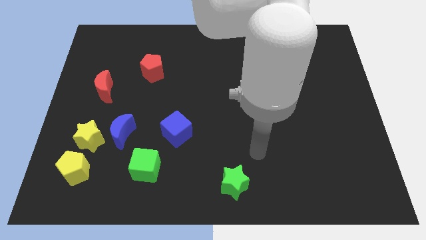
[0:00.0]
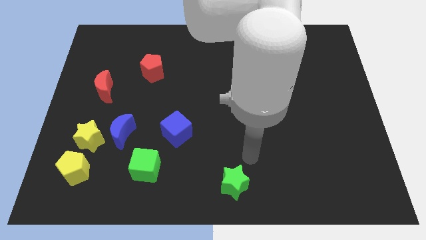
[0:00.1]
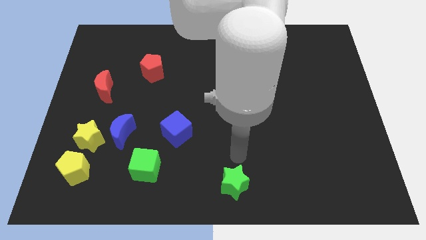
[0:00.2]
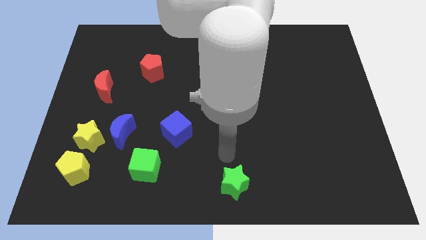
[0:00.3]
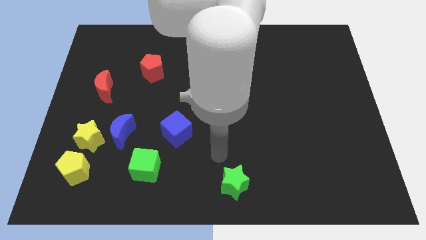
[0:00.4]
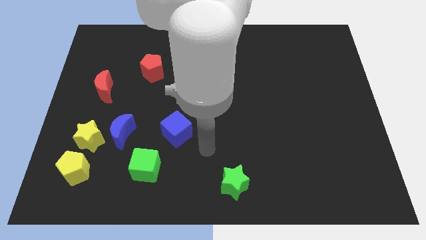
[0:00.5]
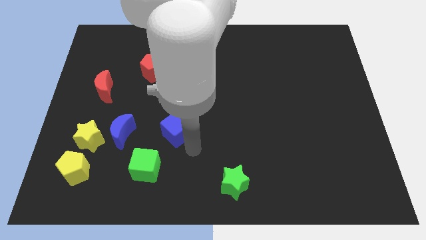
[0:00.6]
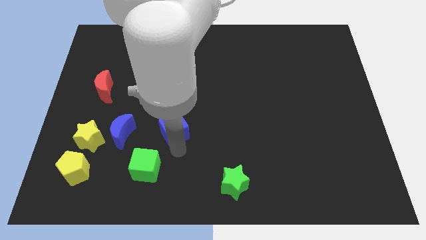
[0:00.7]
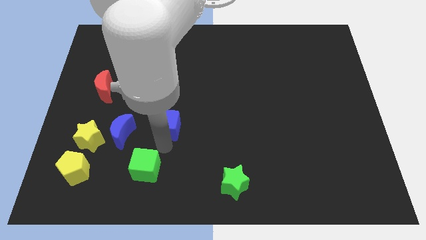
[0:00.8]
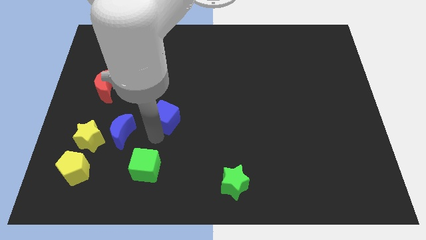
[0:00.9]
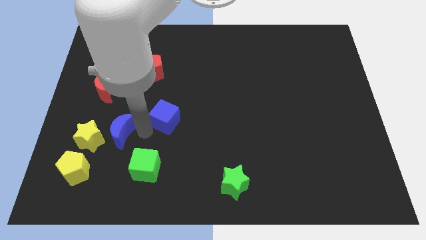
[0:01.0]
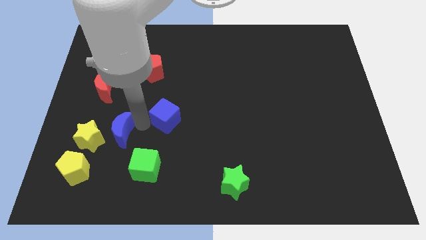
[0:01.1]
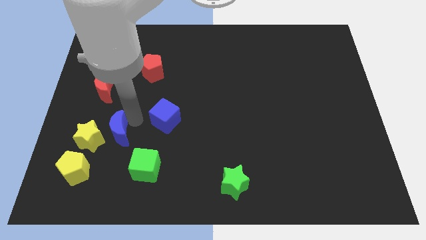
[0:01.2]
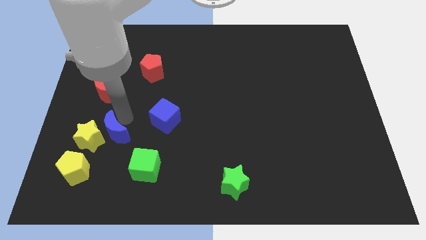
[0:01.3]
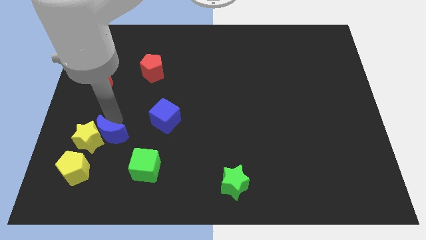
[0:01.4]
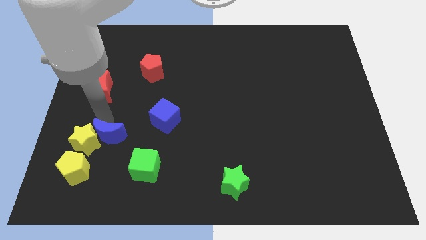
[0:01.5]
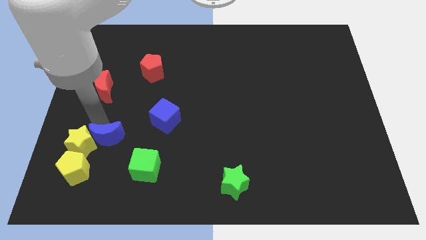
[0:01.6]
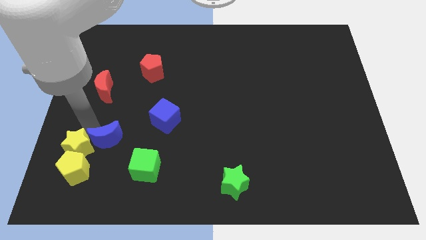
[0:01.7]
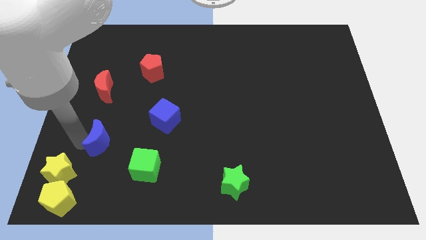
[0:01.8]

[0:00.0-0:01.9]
pull the blue moon apart from the yellow star

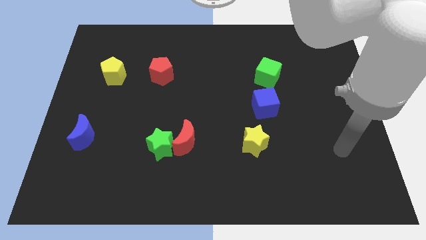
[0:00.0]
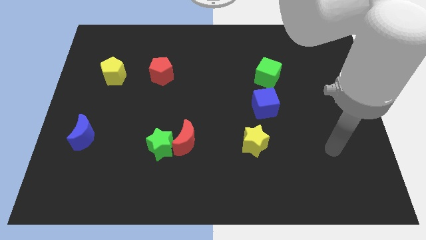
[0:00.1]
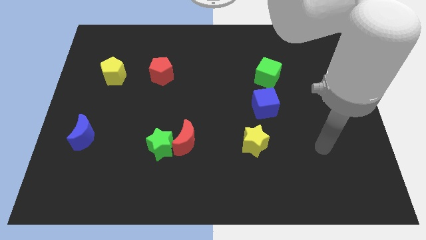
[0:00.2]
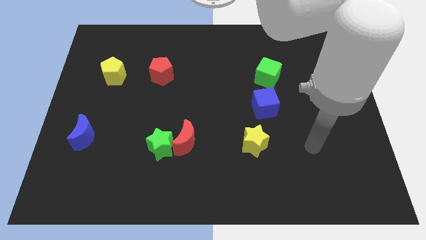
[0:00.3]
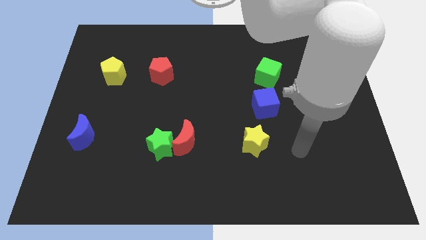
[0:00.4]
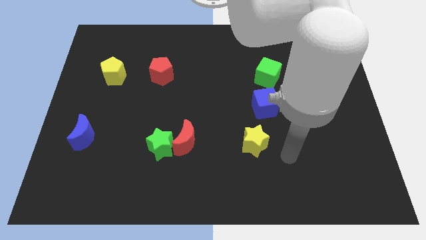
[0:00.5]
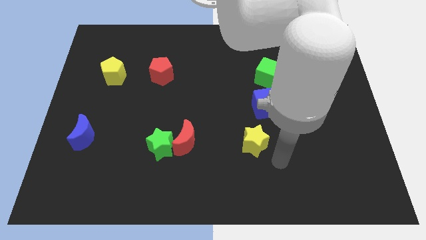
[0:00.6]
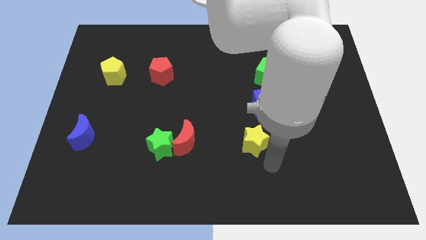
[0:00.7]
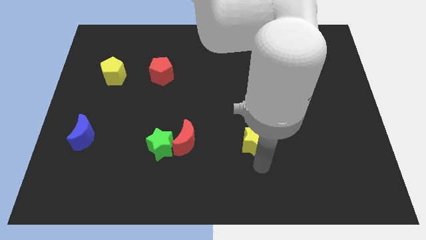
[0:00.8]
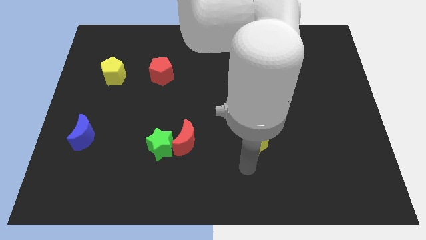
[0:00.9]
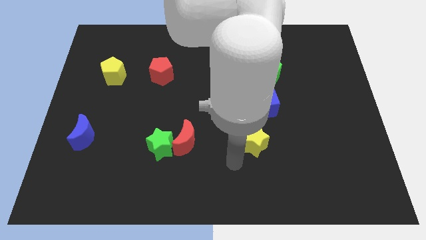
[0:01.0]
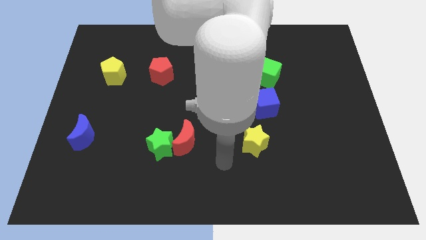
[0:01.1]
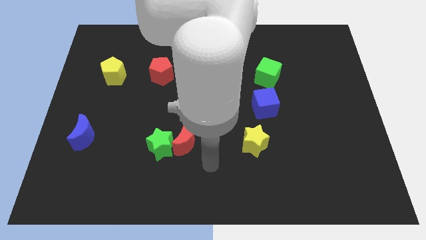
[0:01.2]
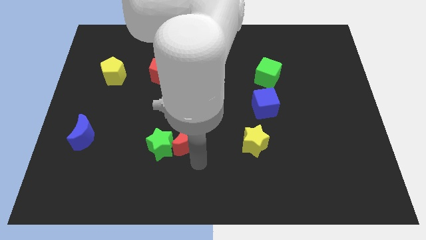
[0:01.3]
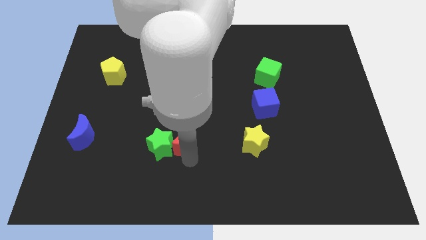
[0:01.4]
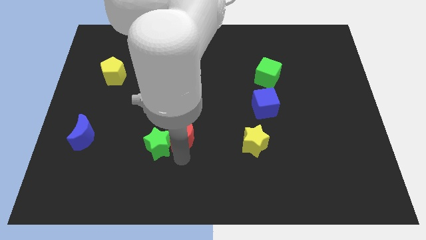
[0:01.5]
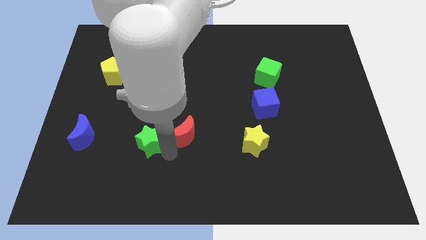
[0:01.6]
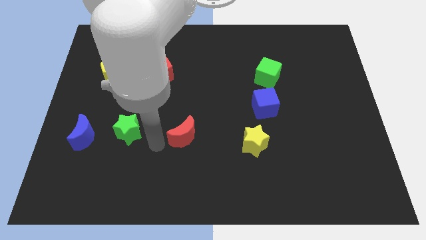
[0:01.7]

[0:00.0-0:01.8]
separate the red moon from the green star

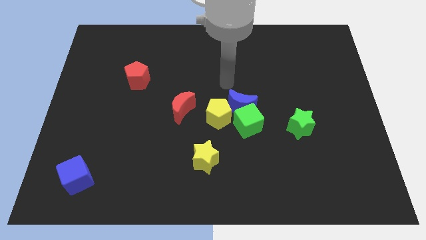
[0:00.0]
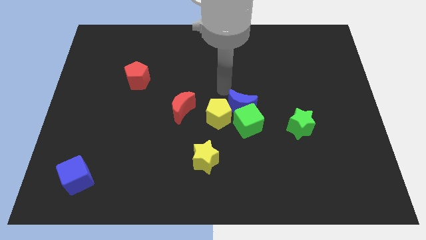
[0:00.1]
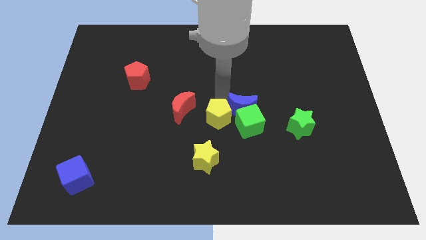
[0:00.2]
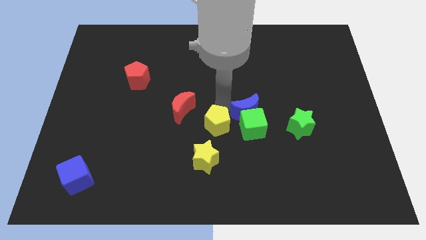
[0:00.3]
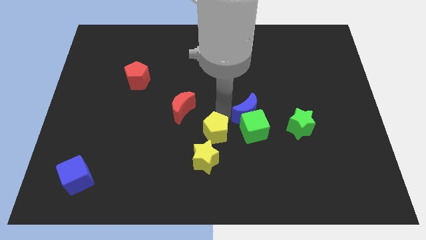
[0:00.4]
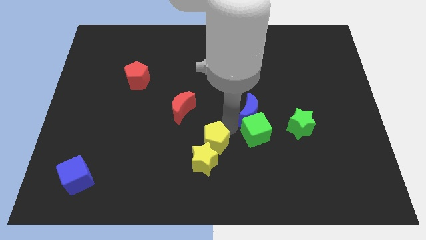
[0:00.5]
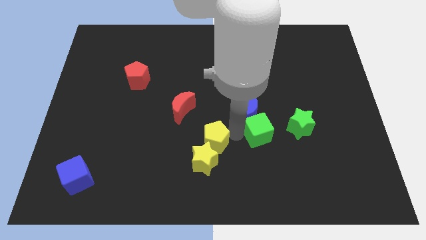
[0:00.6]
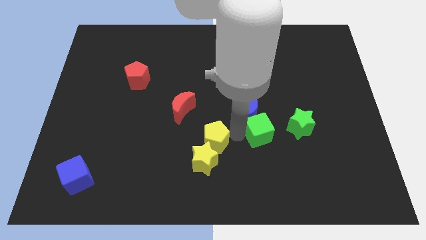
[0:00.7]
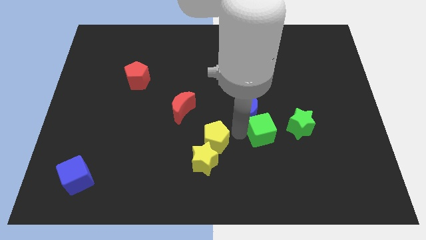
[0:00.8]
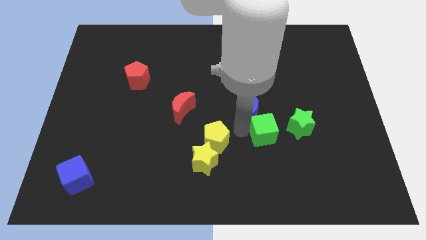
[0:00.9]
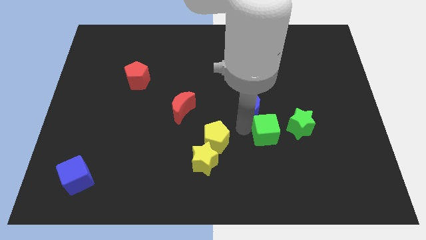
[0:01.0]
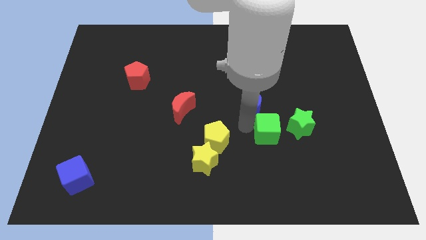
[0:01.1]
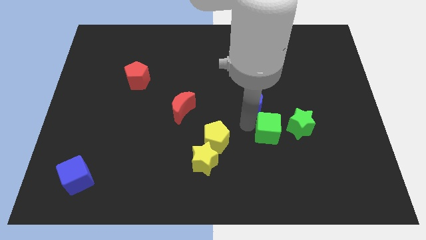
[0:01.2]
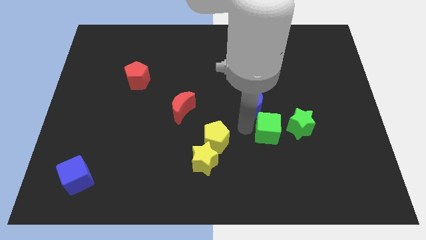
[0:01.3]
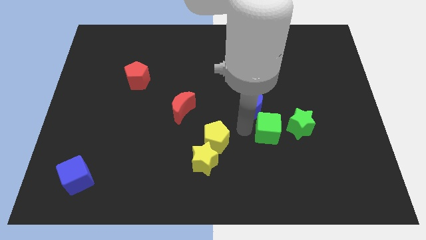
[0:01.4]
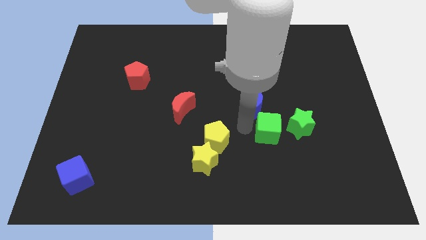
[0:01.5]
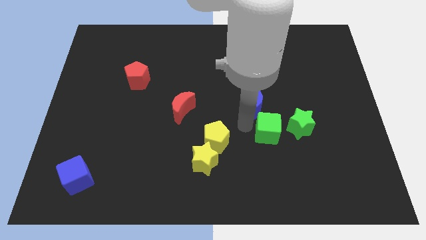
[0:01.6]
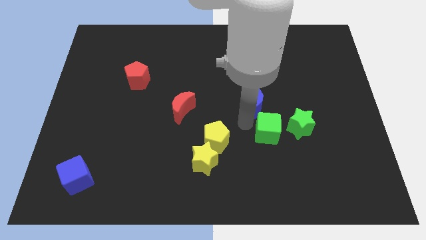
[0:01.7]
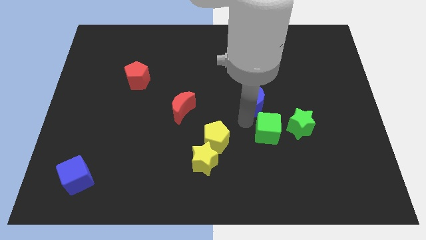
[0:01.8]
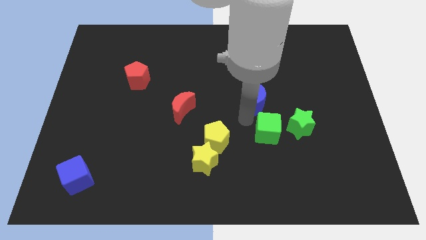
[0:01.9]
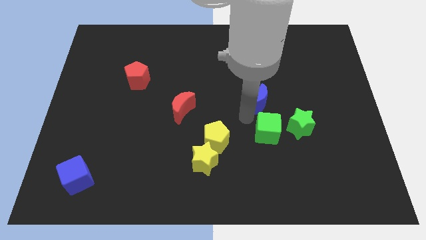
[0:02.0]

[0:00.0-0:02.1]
pull the blue moon apart from the green cube and yellow pentagon

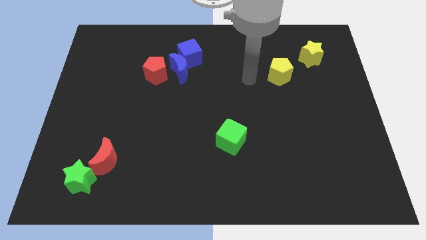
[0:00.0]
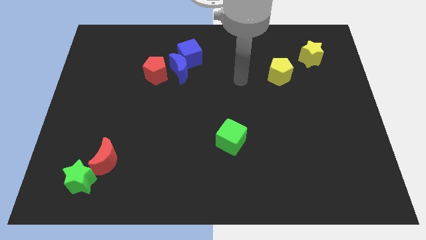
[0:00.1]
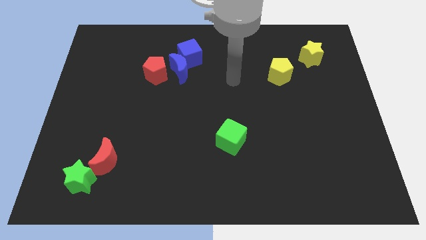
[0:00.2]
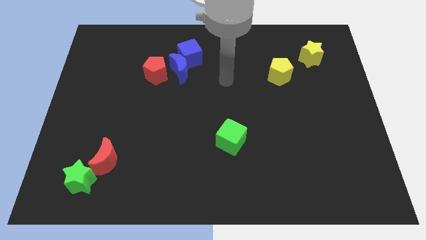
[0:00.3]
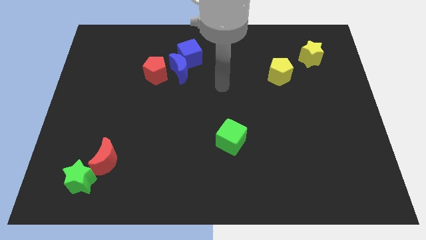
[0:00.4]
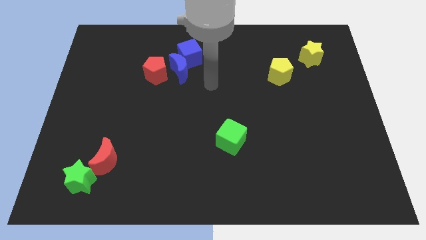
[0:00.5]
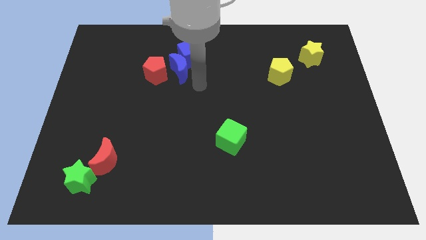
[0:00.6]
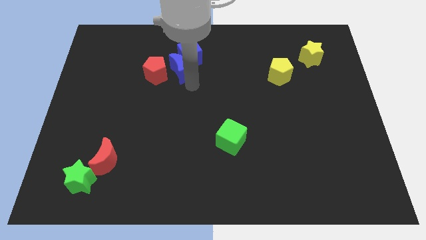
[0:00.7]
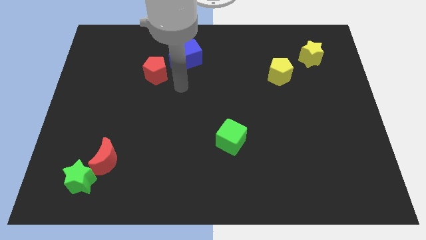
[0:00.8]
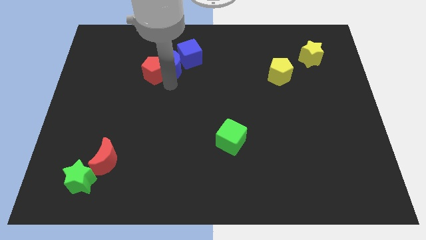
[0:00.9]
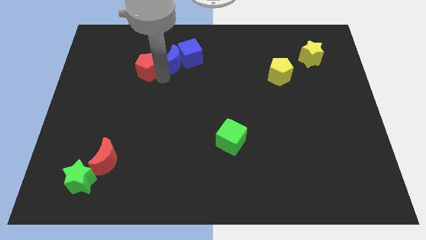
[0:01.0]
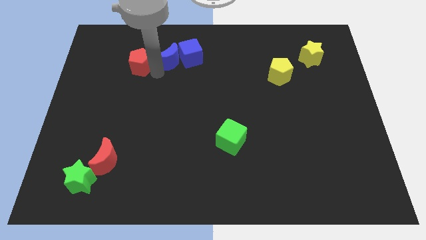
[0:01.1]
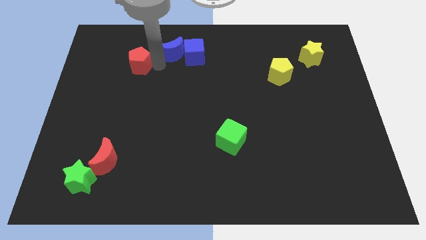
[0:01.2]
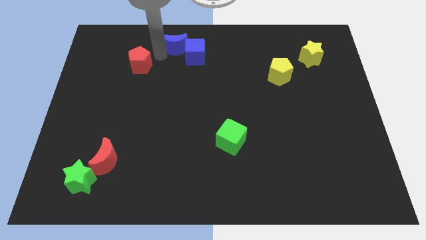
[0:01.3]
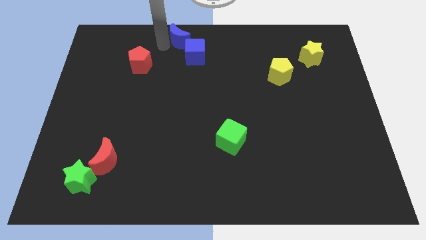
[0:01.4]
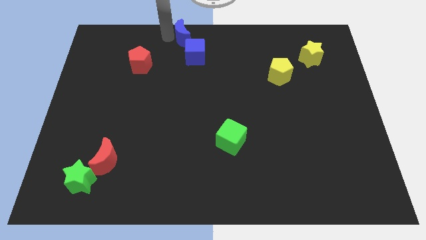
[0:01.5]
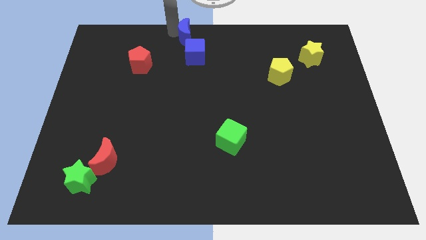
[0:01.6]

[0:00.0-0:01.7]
pull the blue moon apart from the blue cube and red pentagon

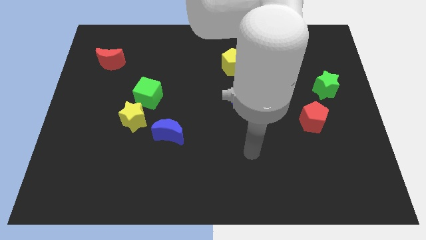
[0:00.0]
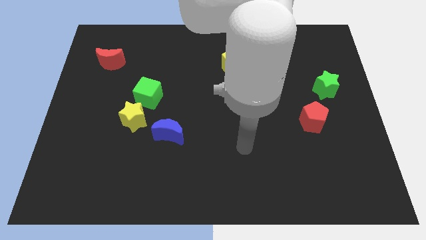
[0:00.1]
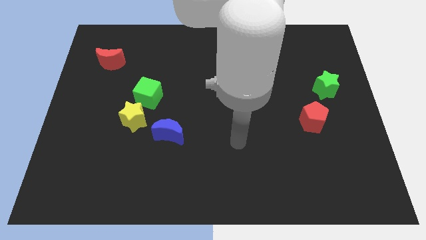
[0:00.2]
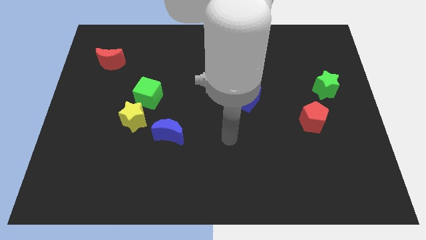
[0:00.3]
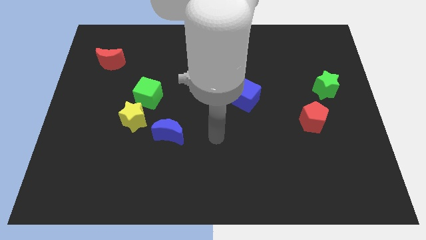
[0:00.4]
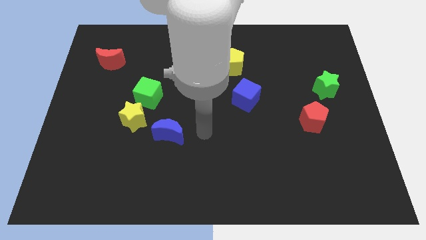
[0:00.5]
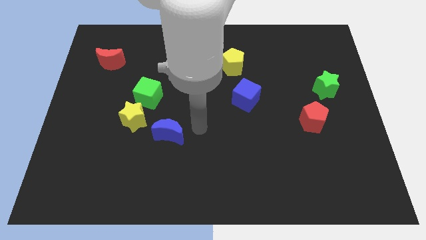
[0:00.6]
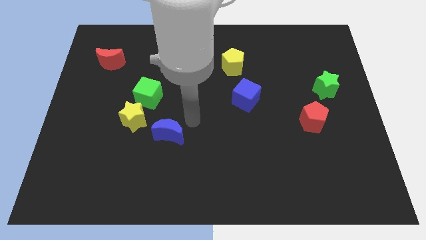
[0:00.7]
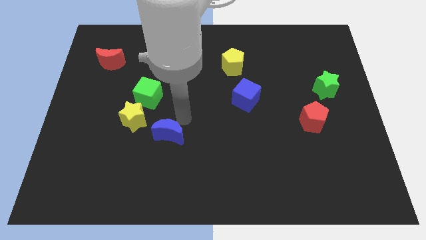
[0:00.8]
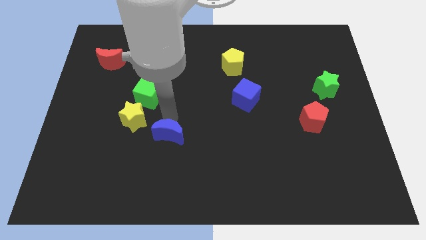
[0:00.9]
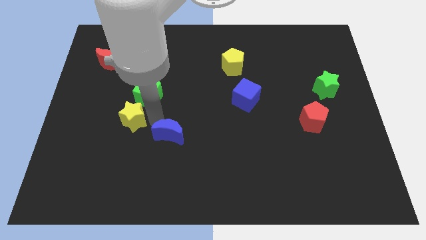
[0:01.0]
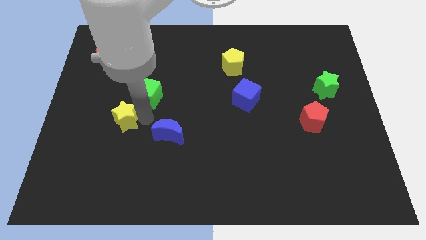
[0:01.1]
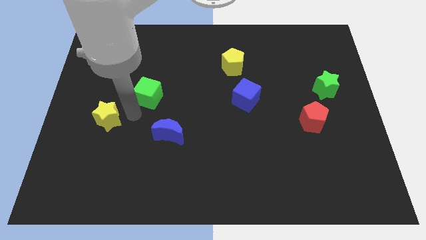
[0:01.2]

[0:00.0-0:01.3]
move the green cube away from the yellow star
